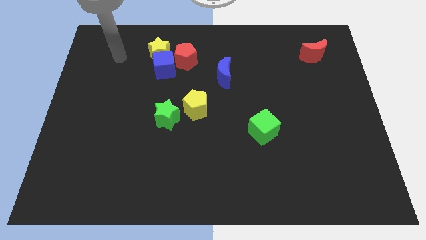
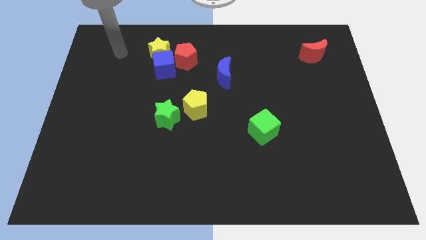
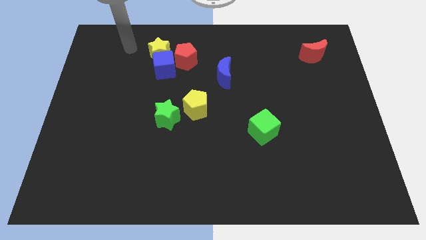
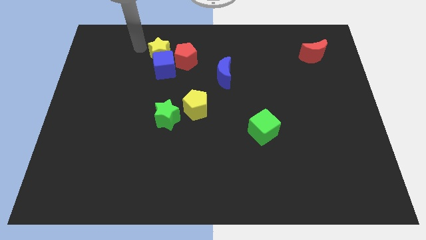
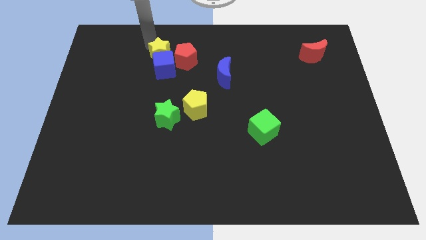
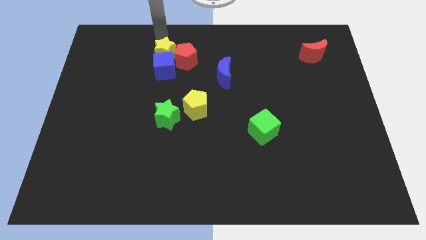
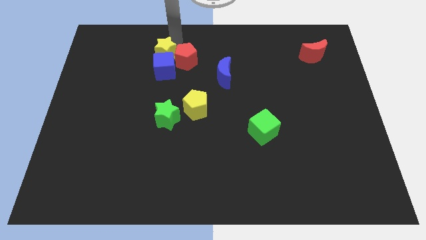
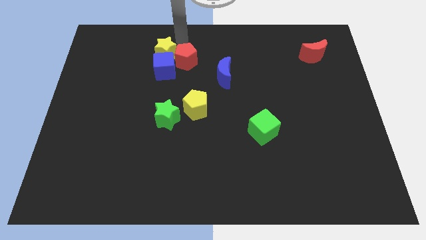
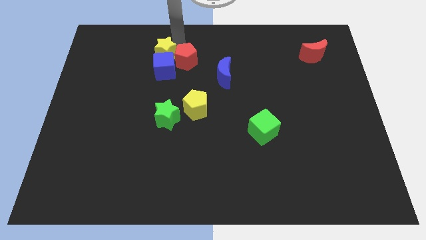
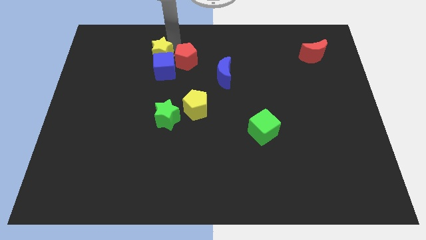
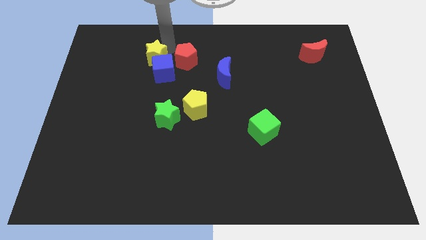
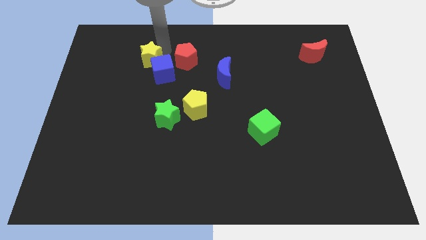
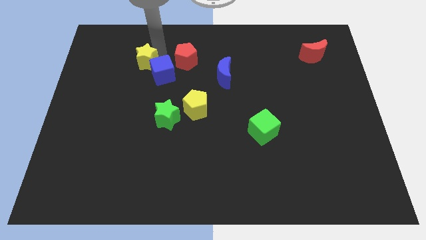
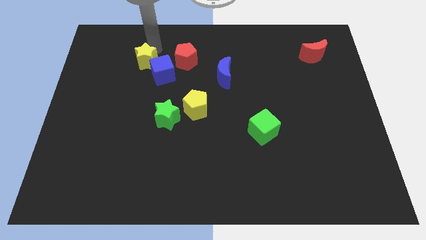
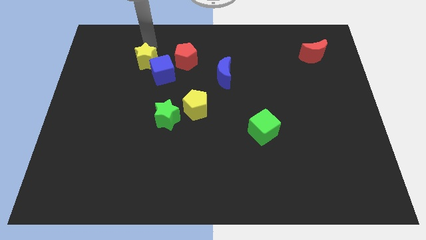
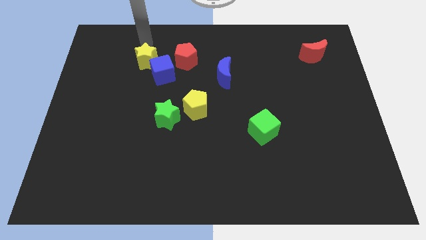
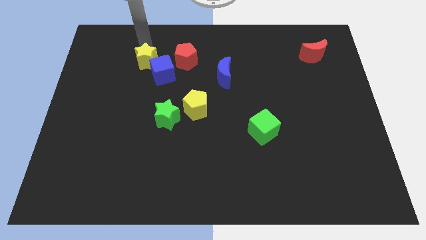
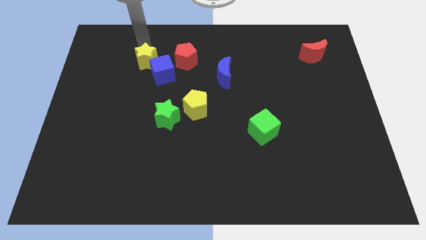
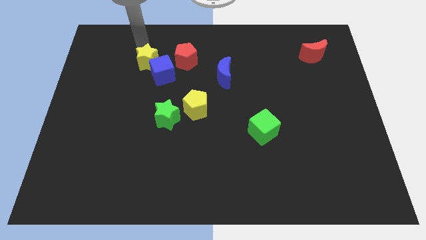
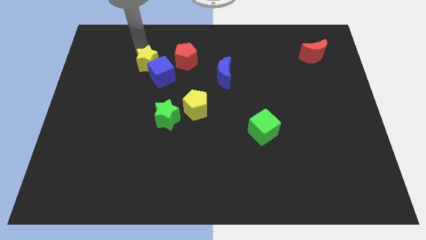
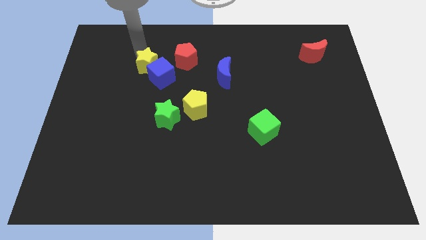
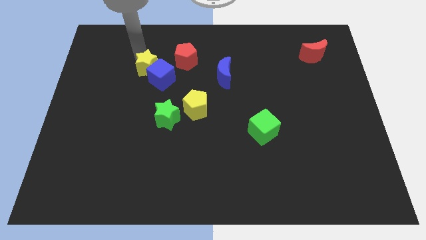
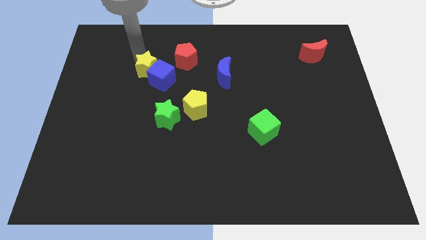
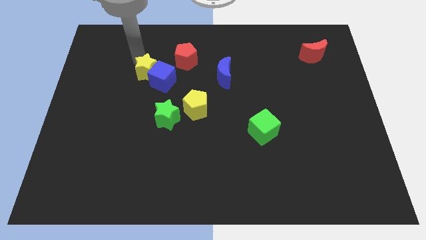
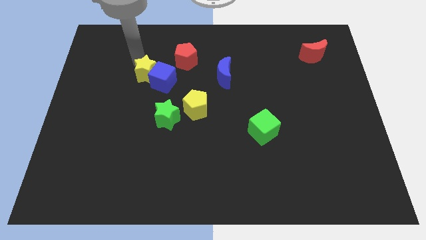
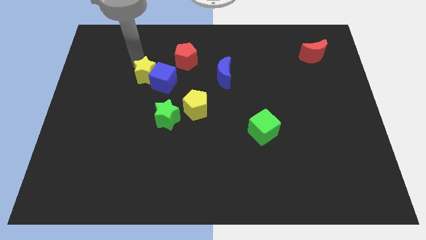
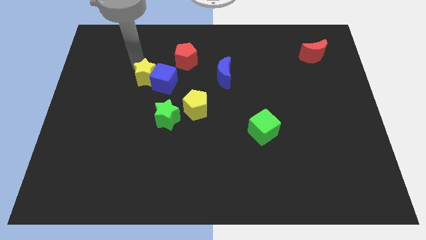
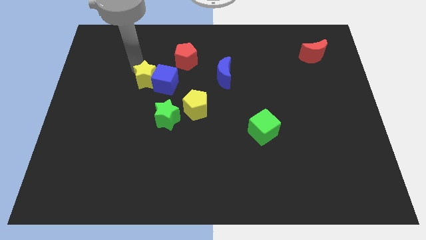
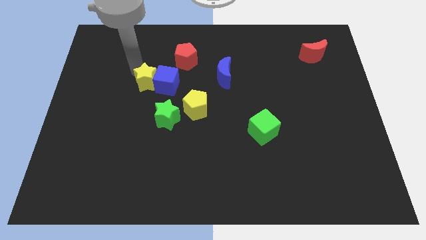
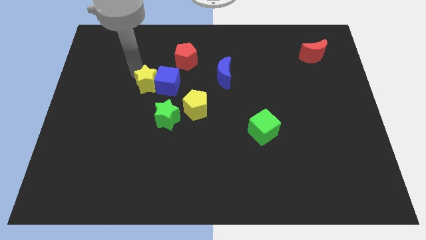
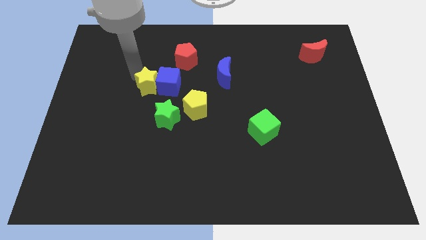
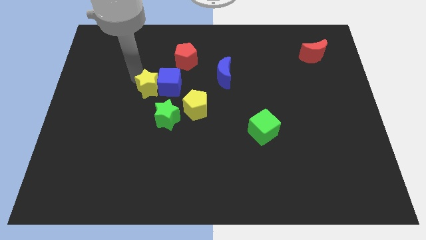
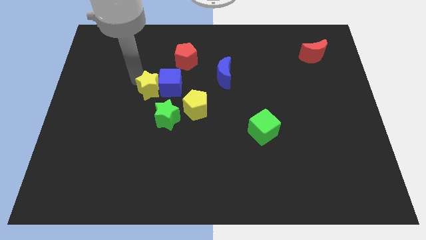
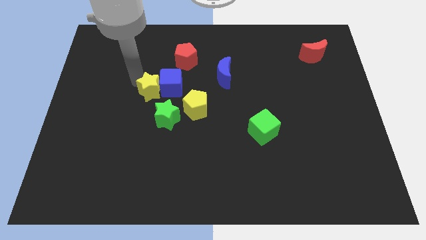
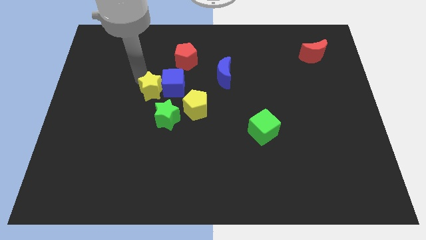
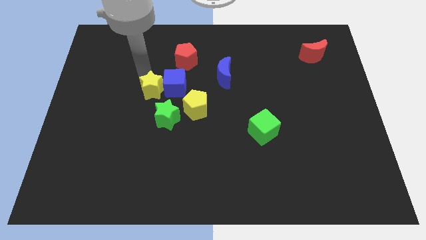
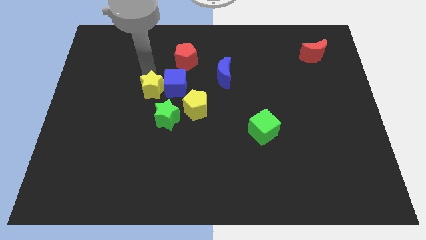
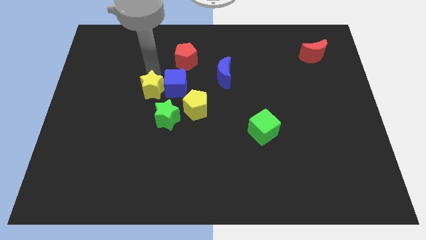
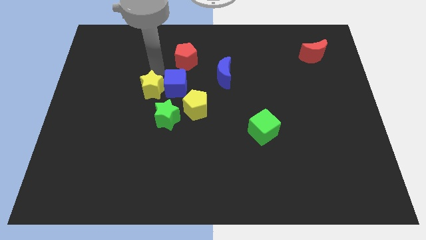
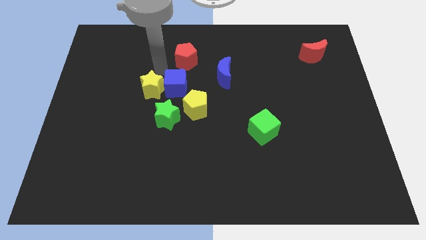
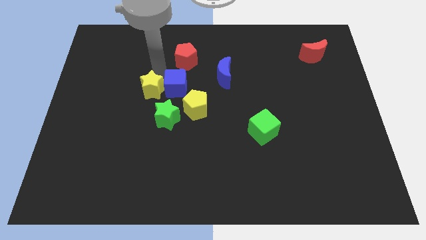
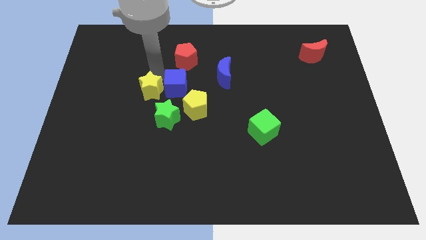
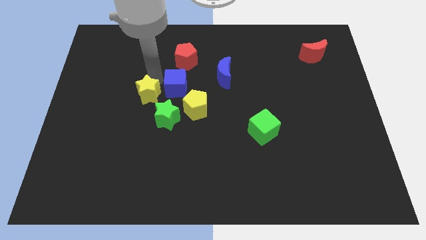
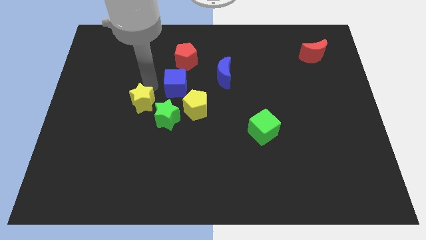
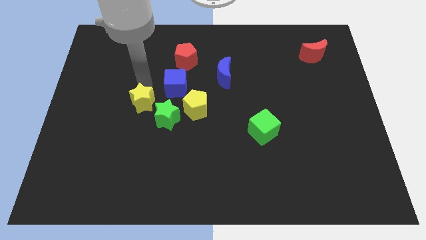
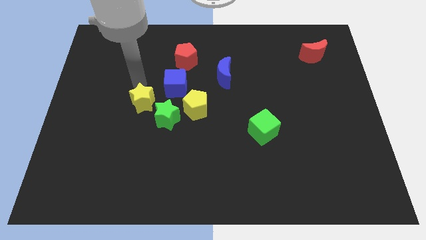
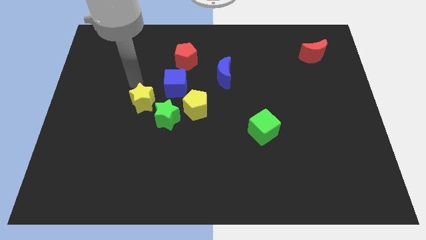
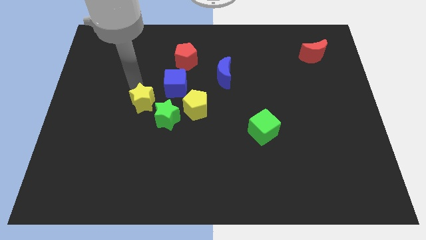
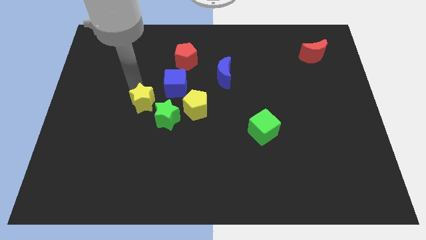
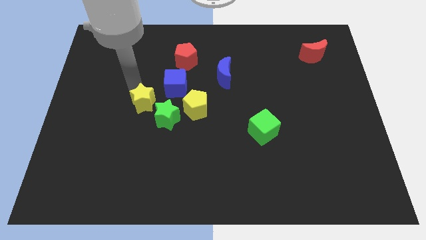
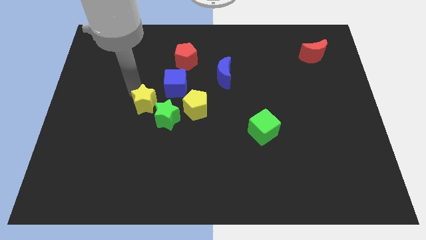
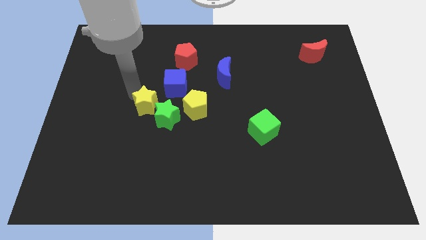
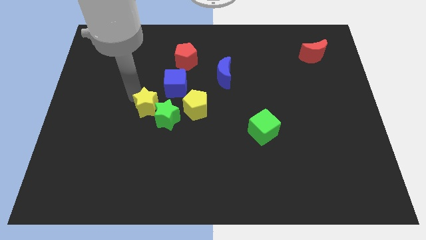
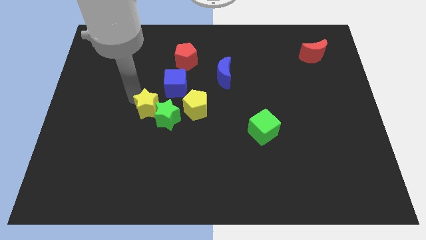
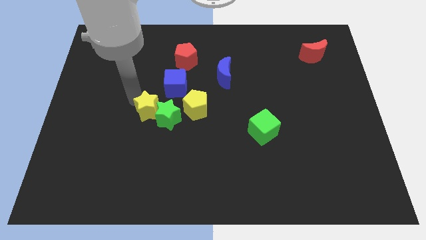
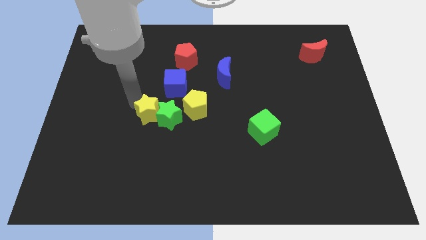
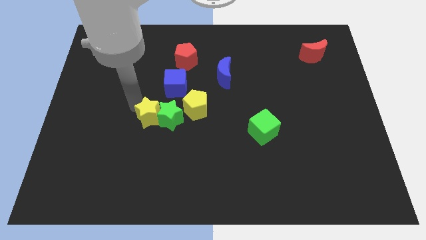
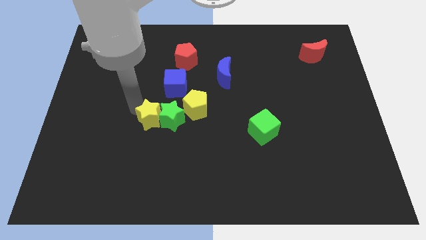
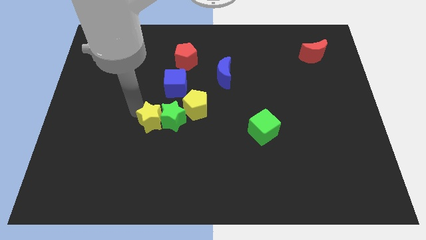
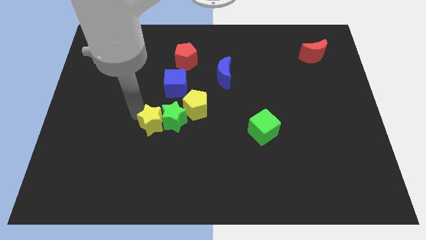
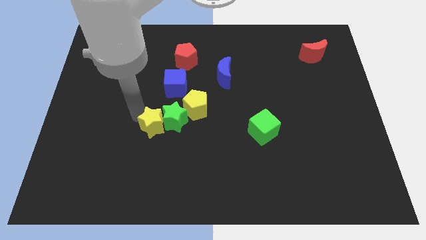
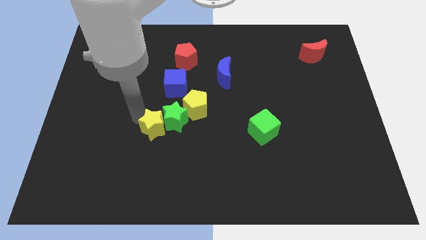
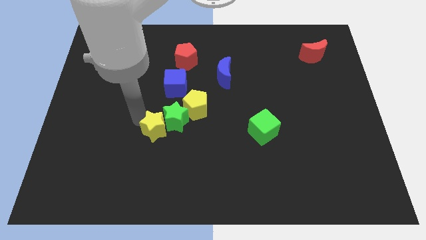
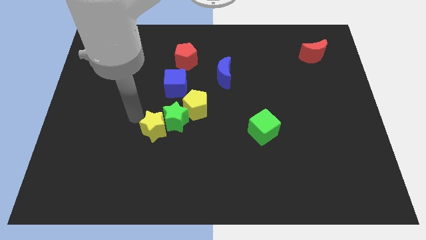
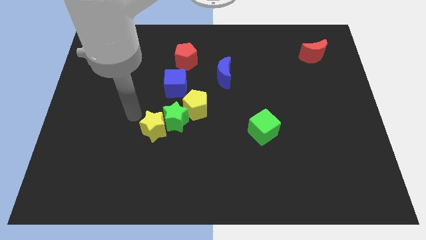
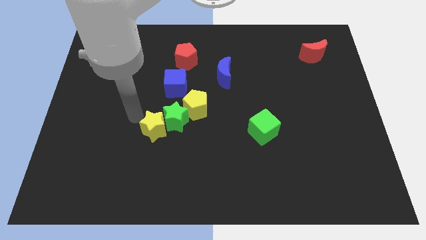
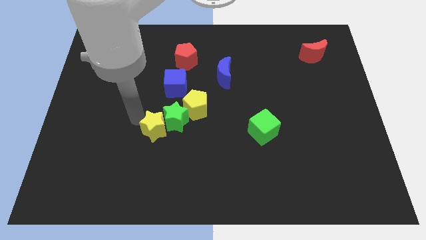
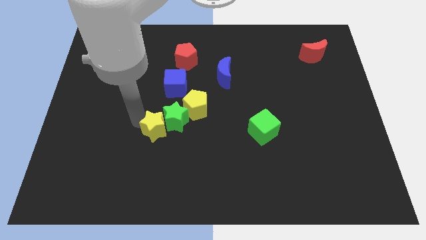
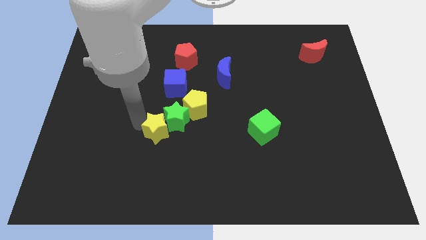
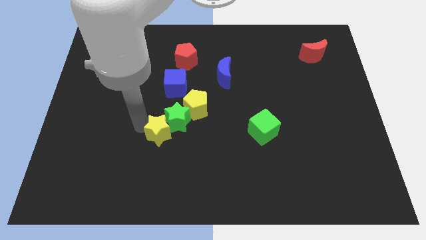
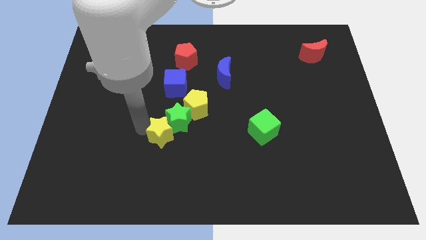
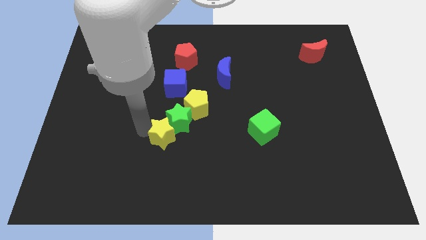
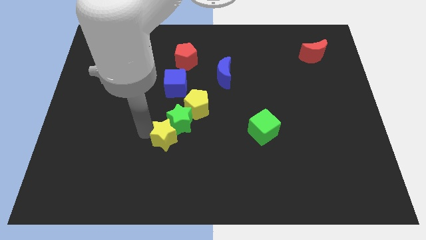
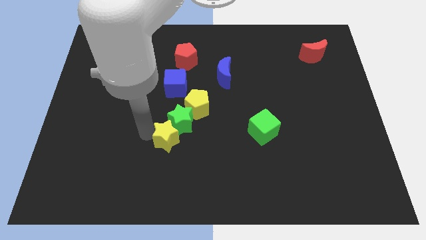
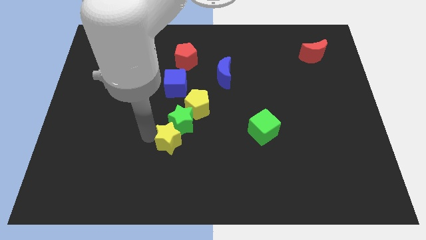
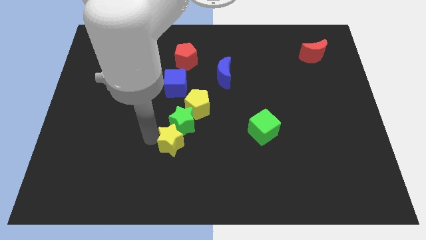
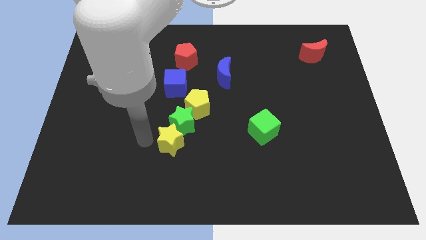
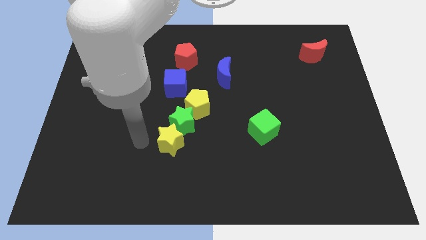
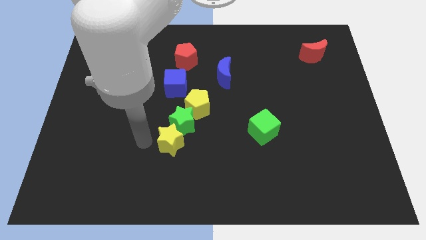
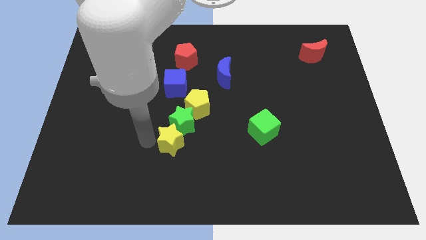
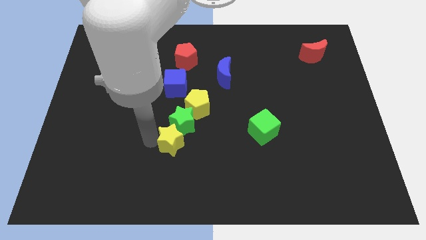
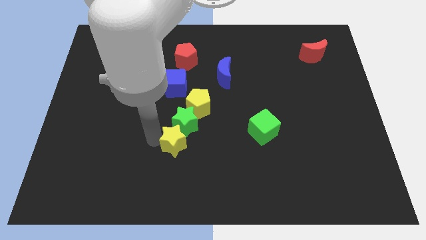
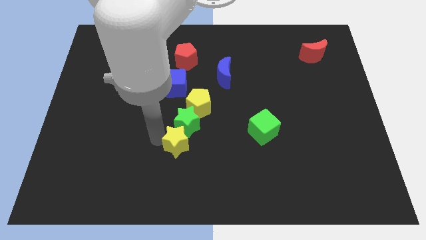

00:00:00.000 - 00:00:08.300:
slide the yellow star to the bottom side of the yellow pentagon
